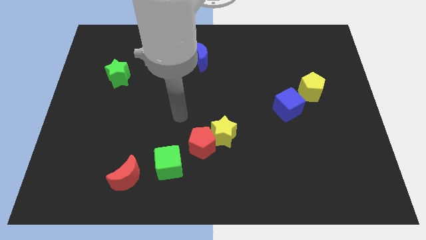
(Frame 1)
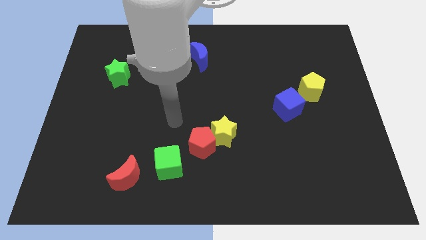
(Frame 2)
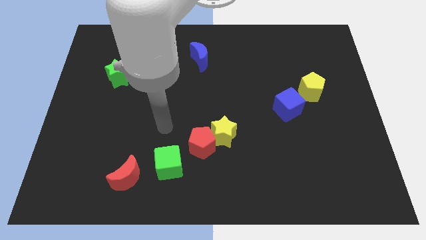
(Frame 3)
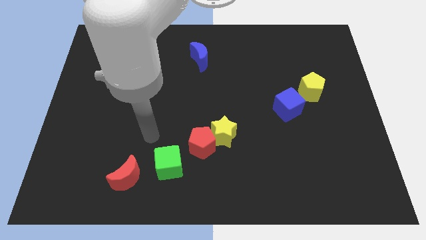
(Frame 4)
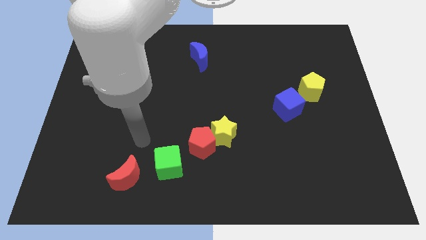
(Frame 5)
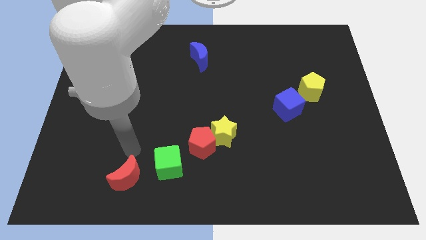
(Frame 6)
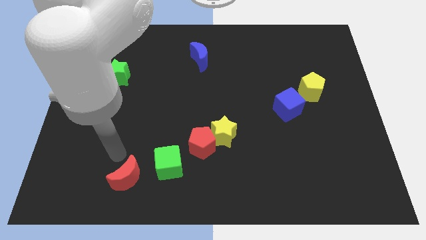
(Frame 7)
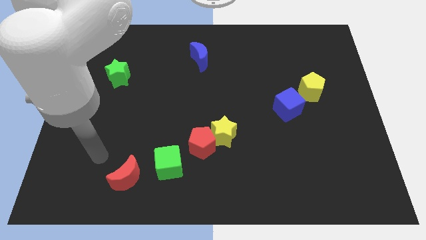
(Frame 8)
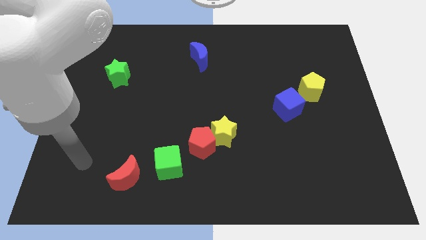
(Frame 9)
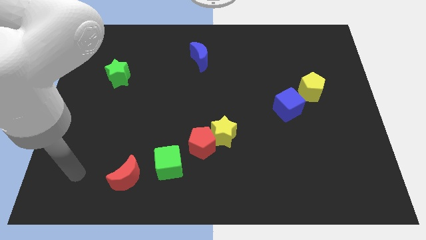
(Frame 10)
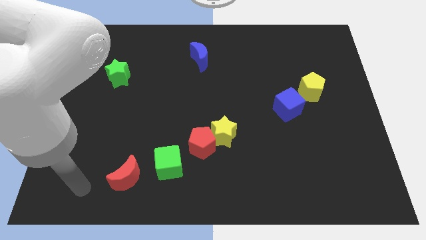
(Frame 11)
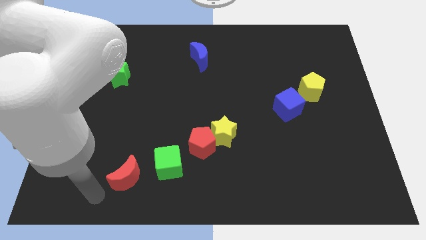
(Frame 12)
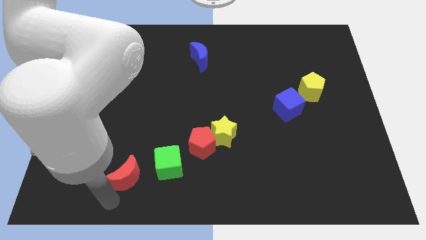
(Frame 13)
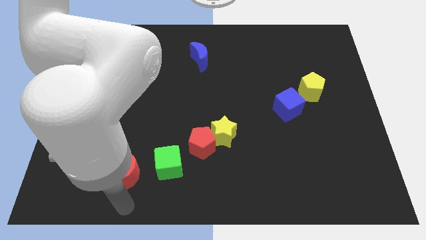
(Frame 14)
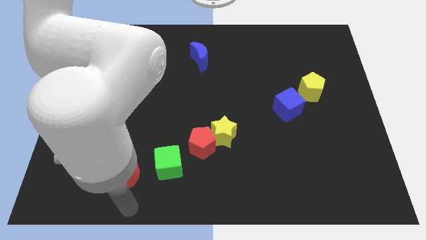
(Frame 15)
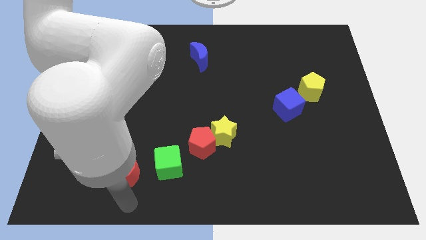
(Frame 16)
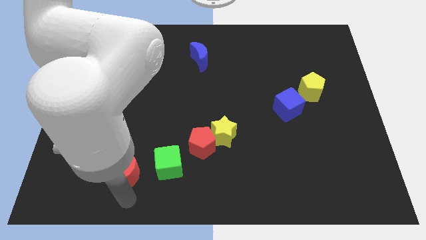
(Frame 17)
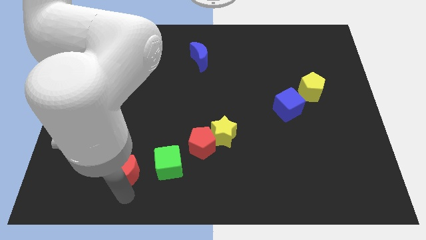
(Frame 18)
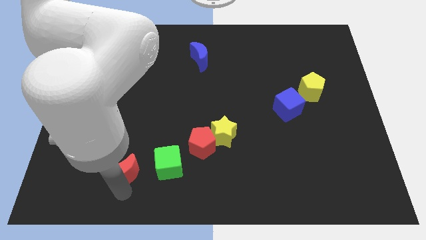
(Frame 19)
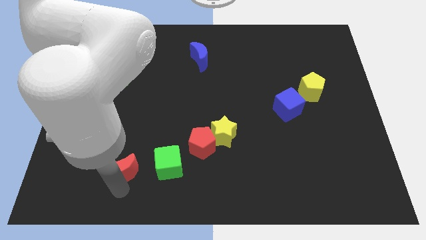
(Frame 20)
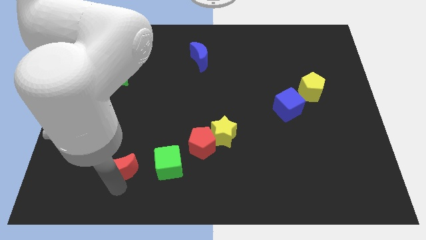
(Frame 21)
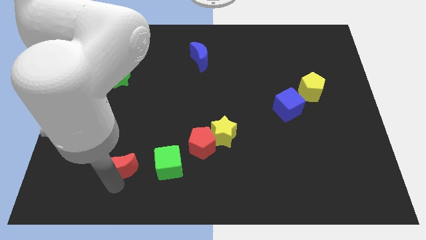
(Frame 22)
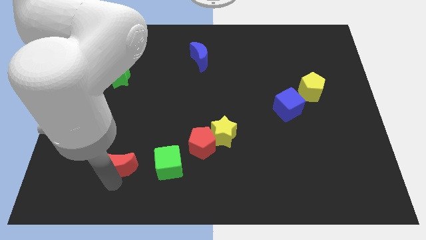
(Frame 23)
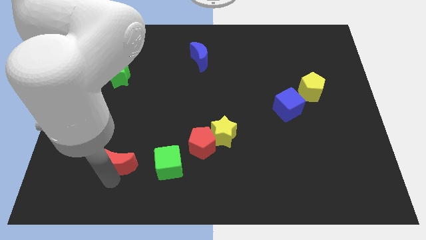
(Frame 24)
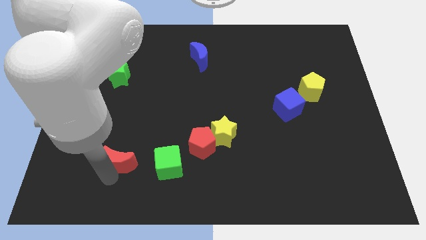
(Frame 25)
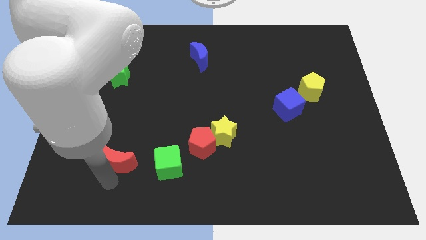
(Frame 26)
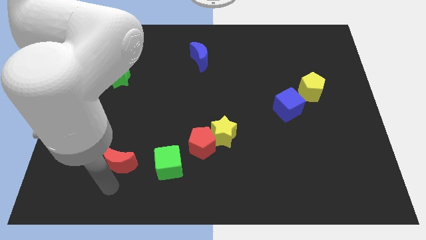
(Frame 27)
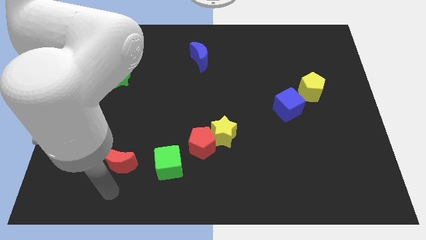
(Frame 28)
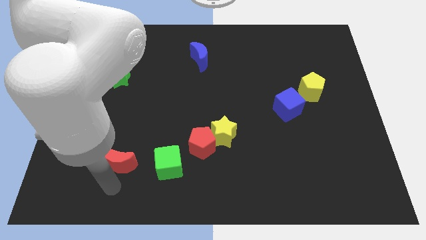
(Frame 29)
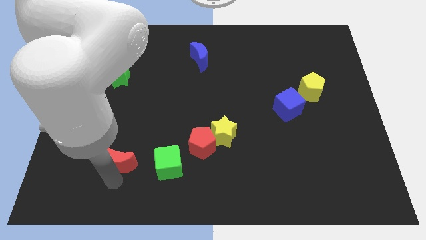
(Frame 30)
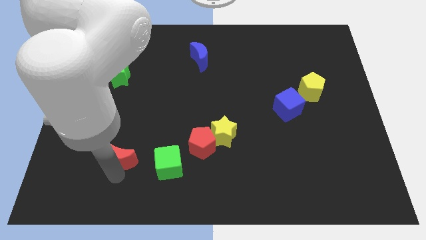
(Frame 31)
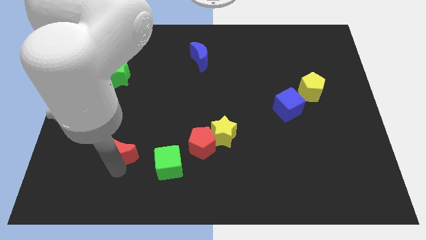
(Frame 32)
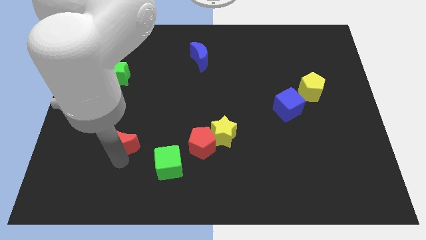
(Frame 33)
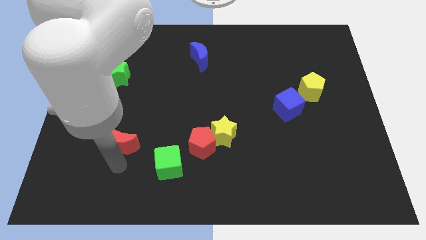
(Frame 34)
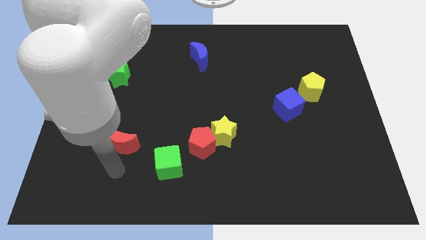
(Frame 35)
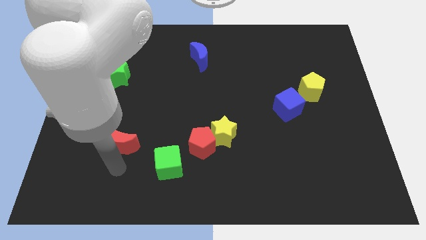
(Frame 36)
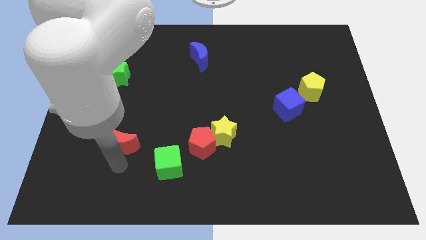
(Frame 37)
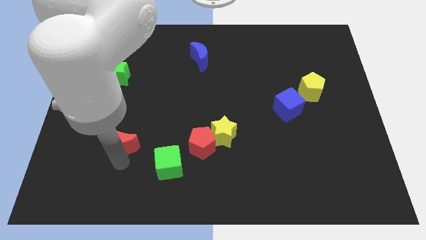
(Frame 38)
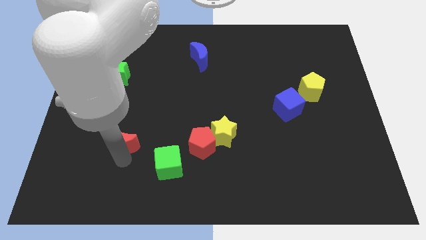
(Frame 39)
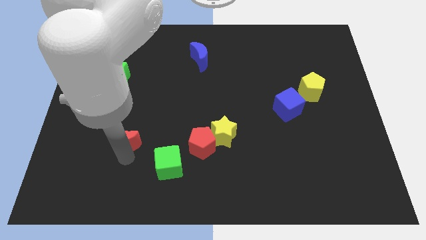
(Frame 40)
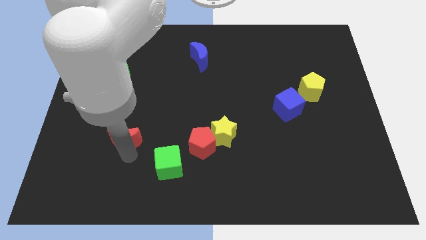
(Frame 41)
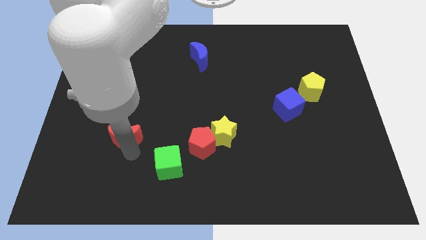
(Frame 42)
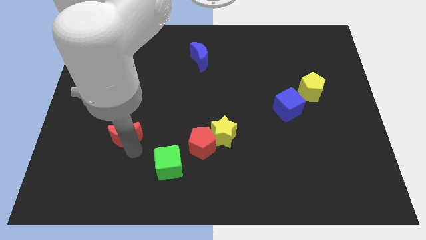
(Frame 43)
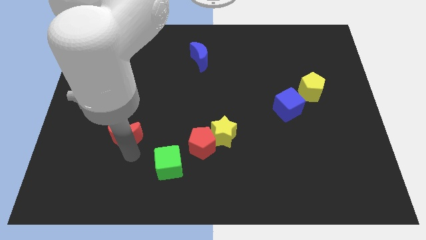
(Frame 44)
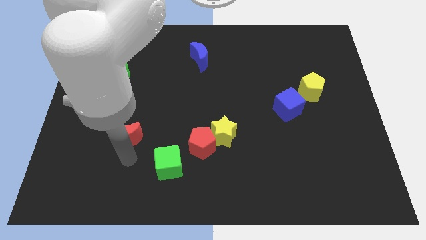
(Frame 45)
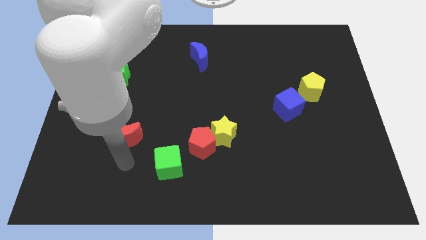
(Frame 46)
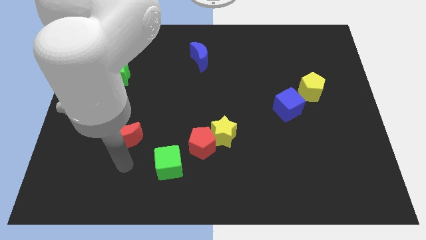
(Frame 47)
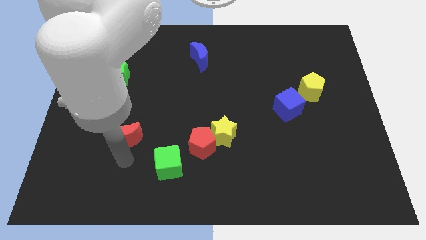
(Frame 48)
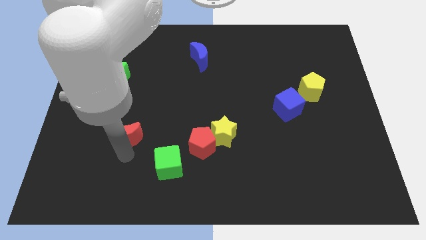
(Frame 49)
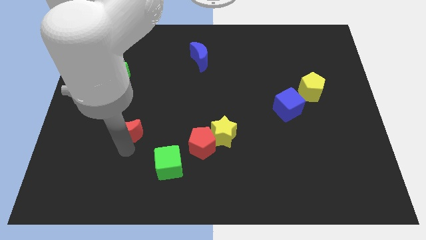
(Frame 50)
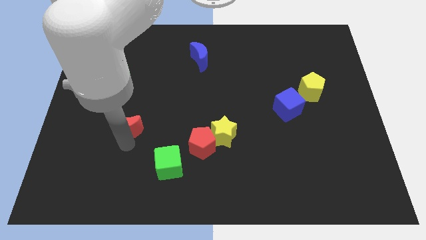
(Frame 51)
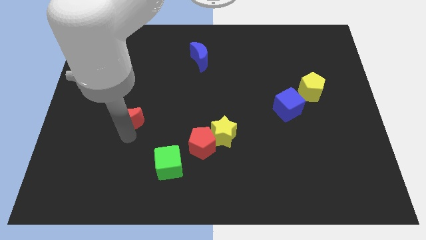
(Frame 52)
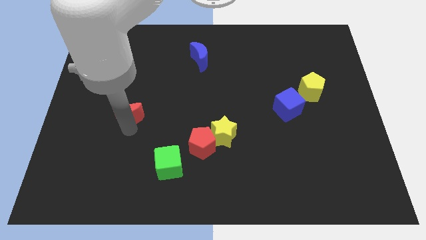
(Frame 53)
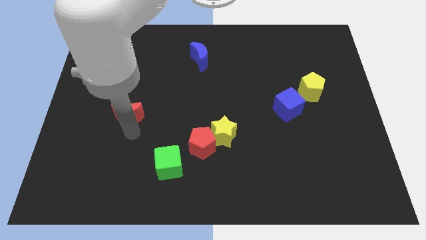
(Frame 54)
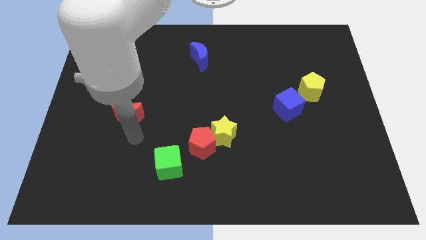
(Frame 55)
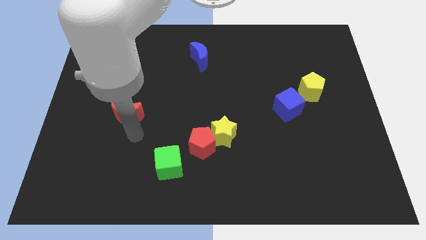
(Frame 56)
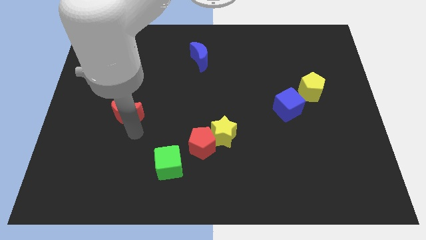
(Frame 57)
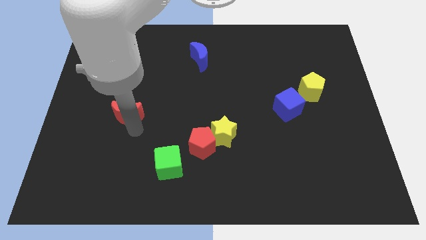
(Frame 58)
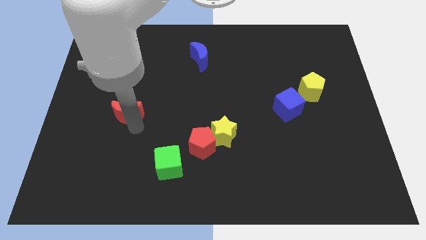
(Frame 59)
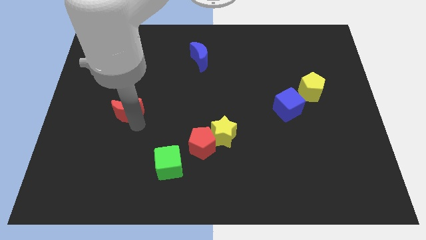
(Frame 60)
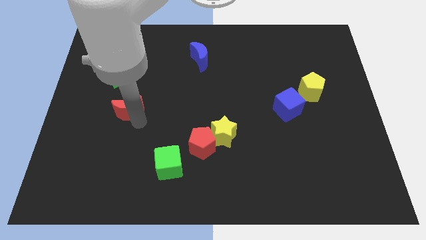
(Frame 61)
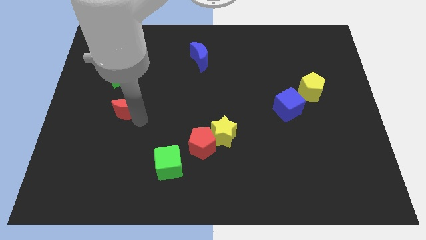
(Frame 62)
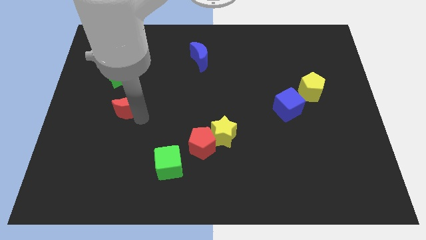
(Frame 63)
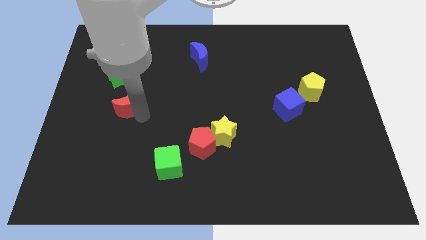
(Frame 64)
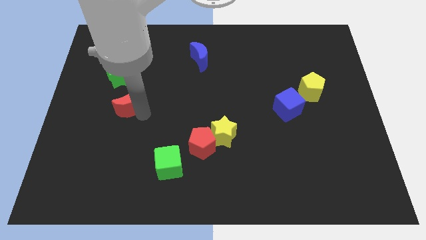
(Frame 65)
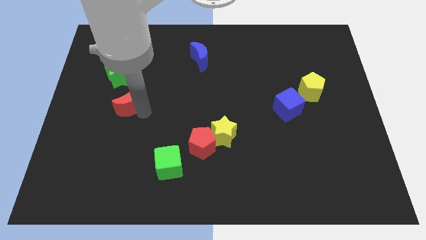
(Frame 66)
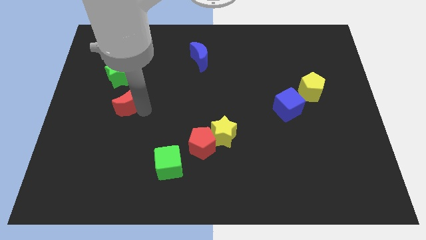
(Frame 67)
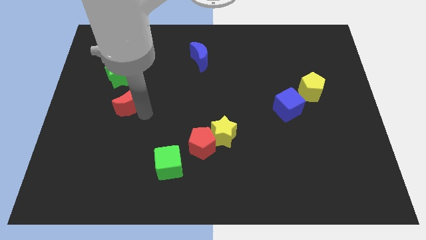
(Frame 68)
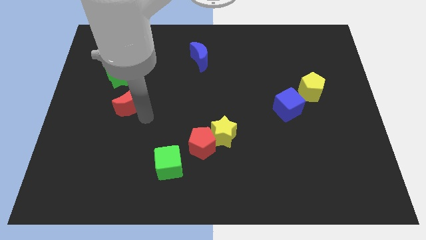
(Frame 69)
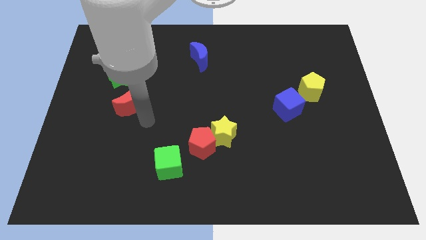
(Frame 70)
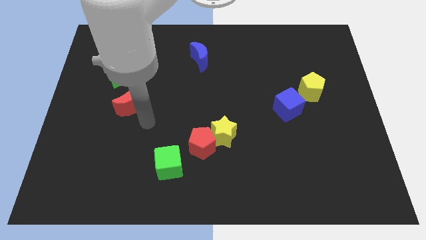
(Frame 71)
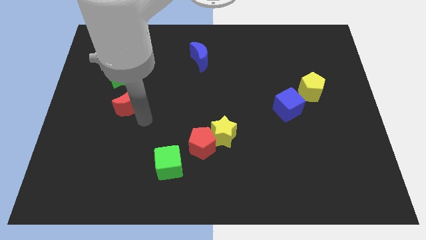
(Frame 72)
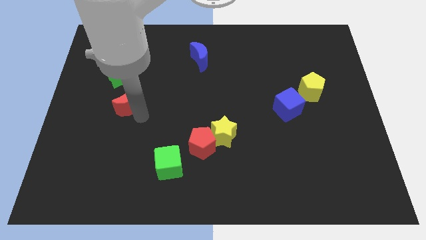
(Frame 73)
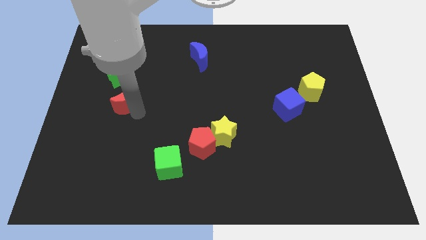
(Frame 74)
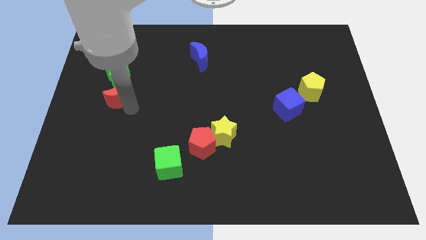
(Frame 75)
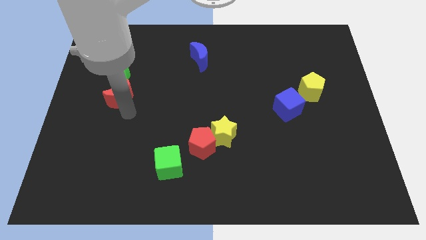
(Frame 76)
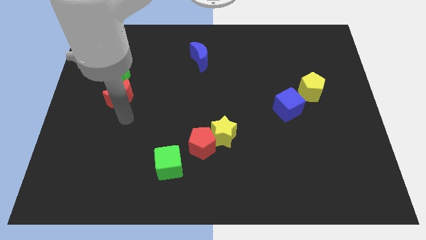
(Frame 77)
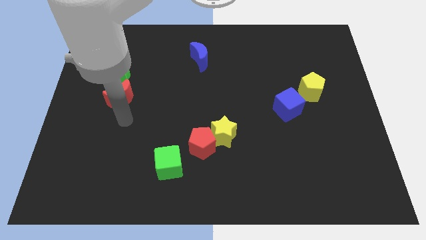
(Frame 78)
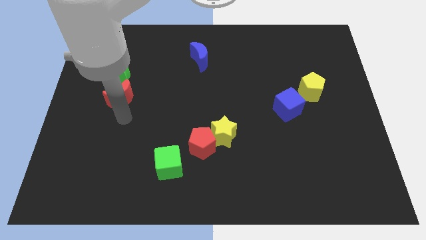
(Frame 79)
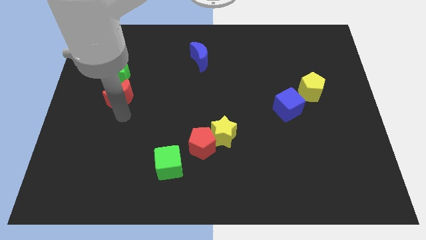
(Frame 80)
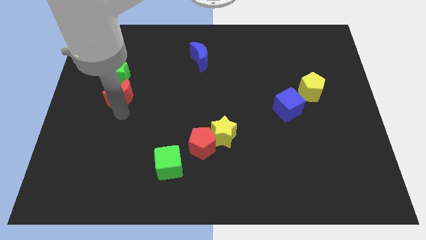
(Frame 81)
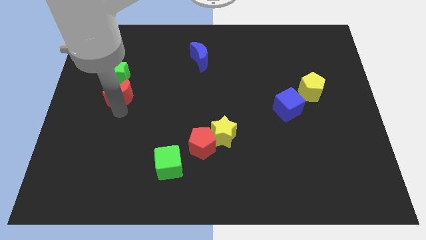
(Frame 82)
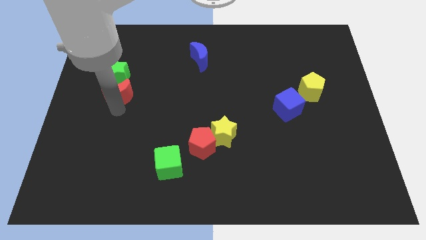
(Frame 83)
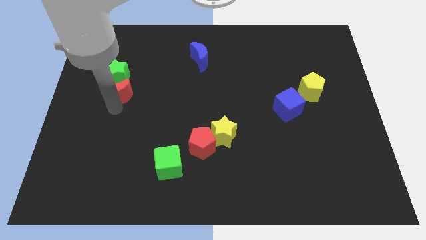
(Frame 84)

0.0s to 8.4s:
slide the red moon towards the green star
